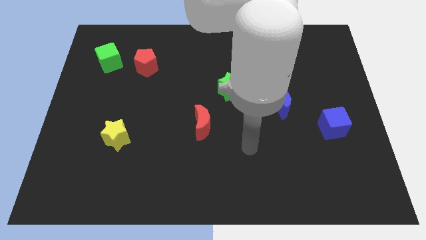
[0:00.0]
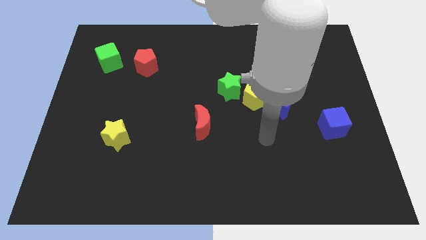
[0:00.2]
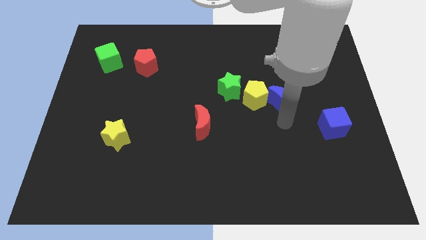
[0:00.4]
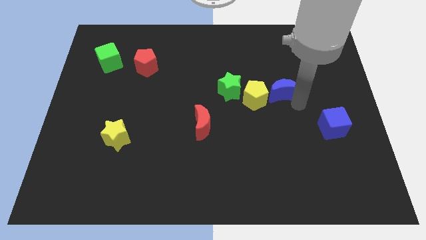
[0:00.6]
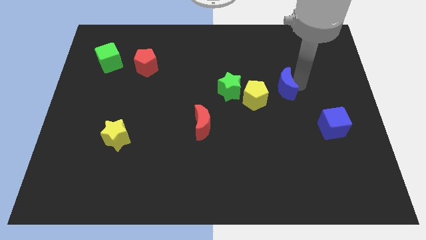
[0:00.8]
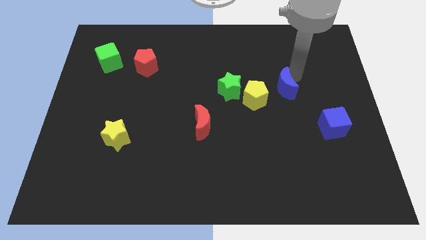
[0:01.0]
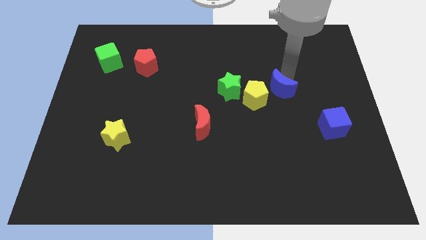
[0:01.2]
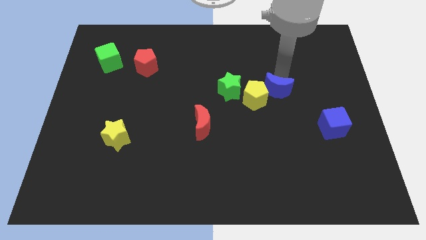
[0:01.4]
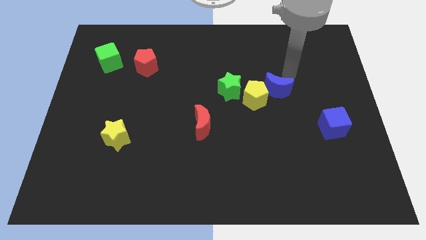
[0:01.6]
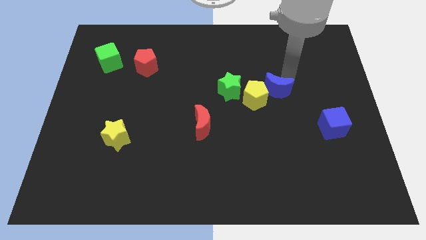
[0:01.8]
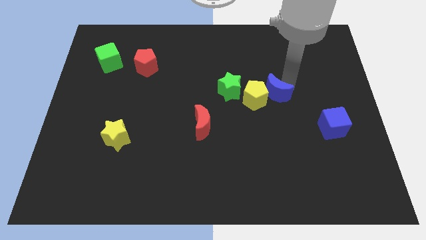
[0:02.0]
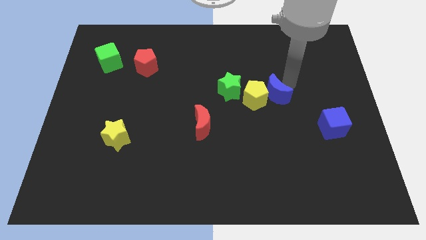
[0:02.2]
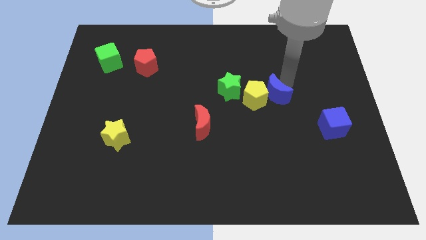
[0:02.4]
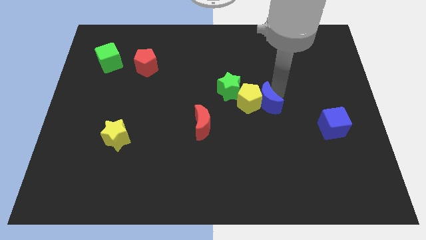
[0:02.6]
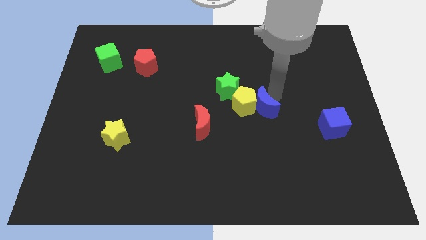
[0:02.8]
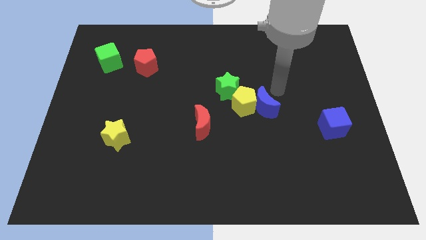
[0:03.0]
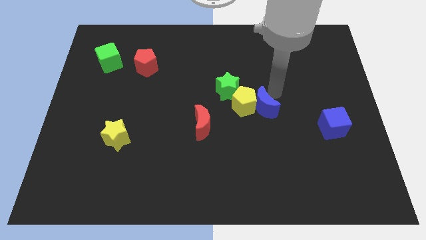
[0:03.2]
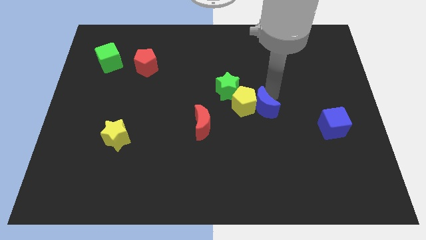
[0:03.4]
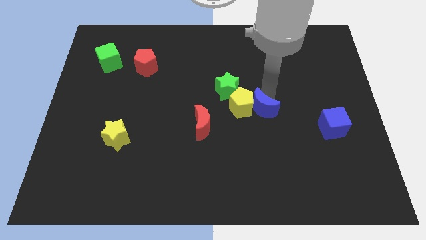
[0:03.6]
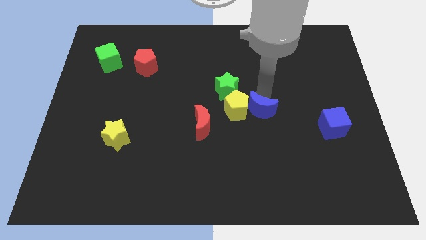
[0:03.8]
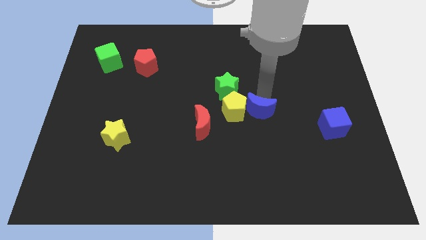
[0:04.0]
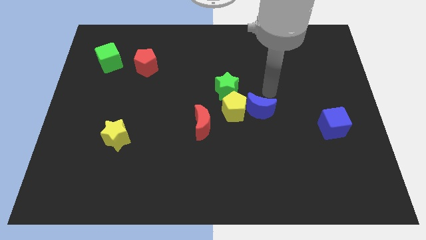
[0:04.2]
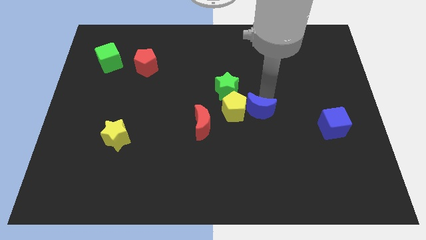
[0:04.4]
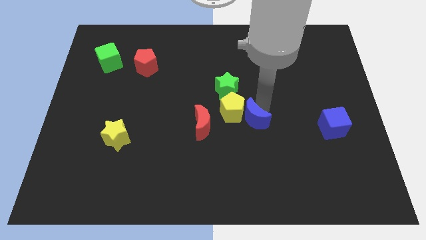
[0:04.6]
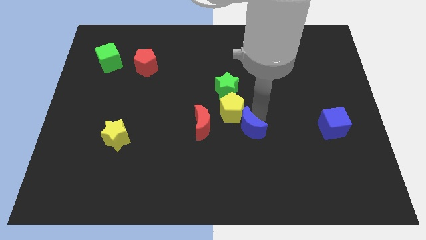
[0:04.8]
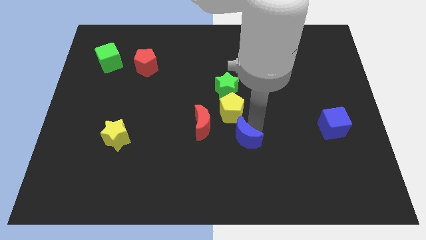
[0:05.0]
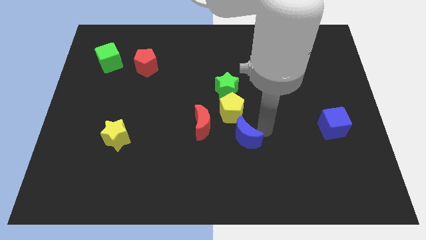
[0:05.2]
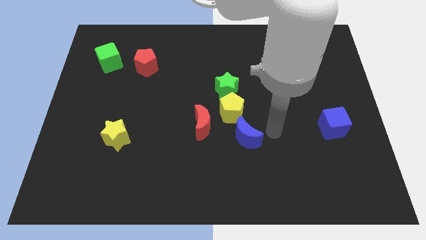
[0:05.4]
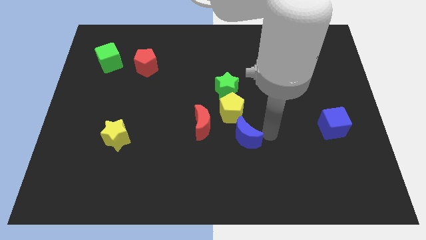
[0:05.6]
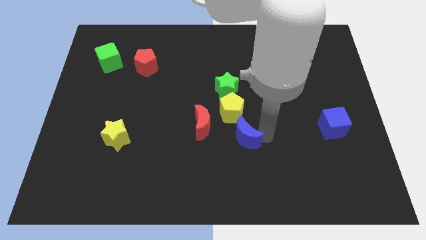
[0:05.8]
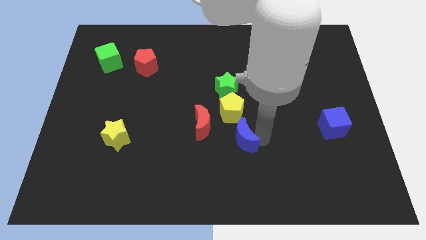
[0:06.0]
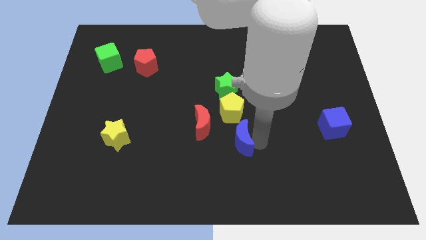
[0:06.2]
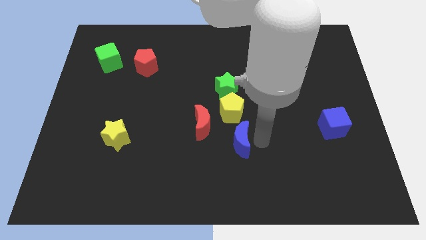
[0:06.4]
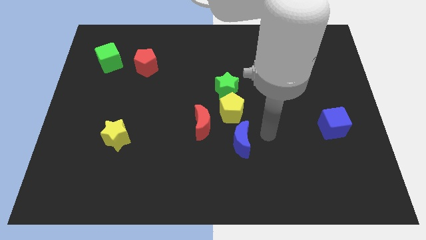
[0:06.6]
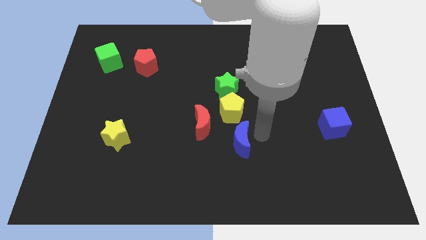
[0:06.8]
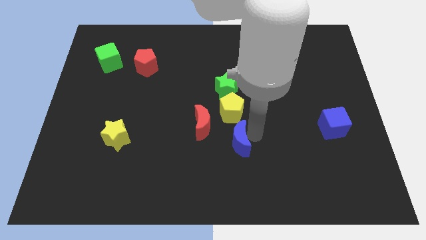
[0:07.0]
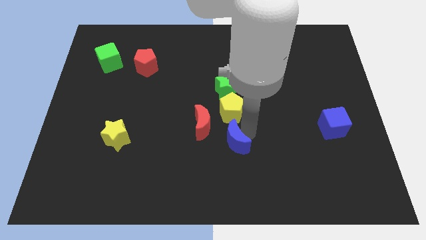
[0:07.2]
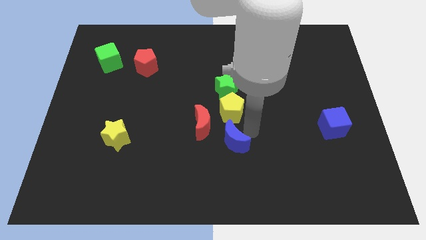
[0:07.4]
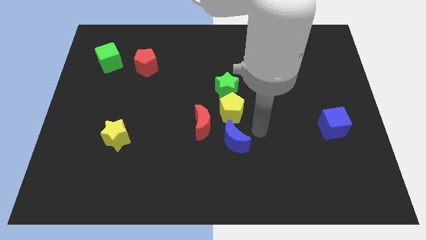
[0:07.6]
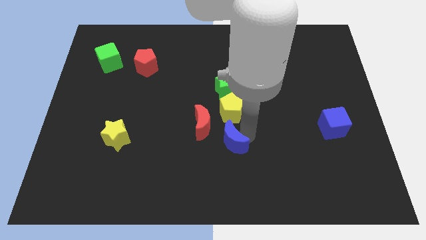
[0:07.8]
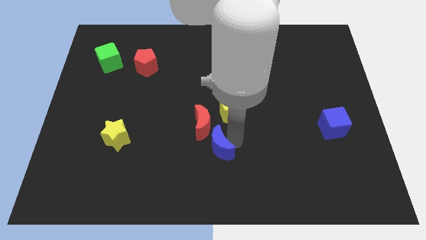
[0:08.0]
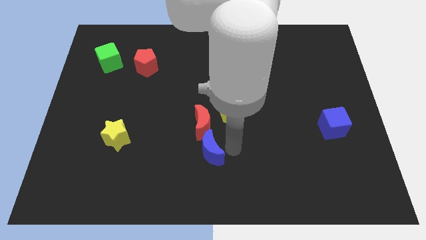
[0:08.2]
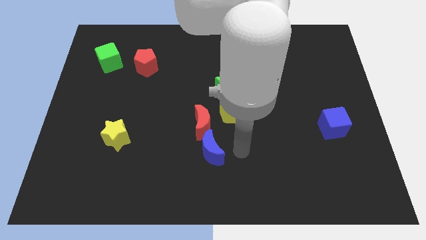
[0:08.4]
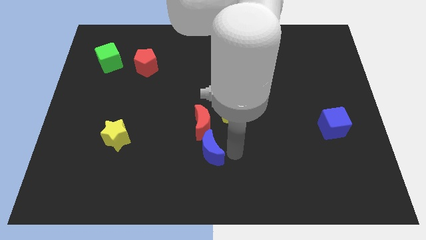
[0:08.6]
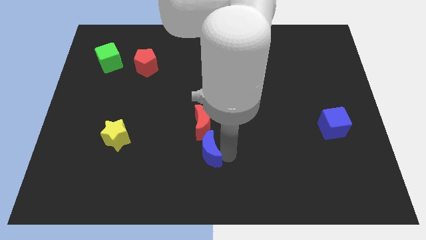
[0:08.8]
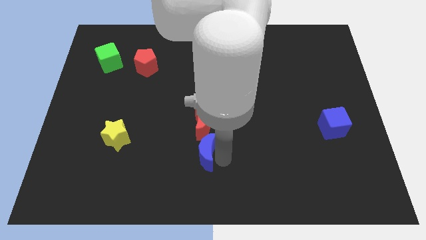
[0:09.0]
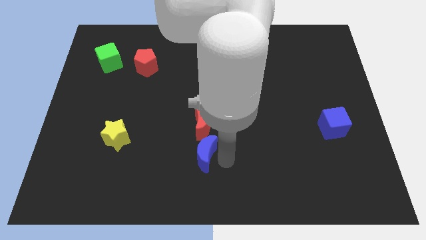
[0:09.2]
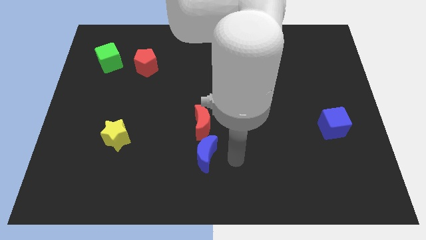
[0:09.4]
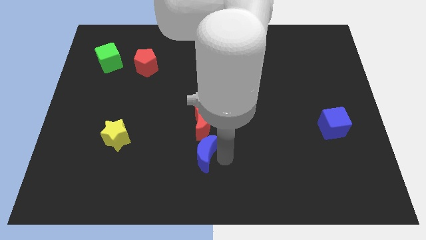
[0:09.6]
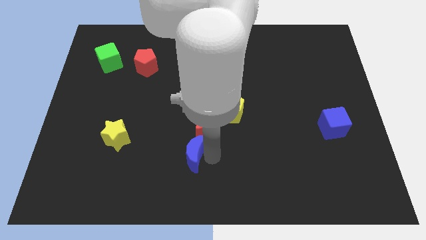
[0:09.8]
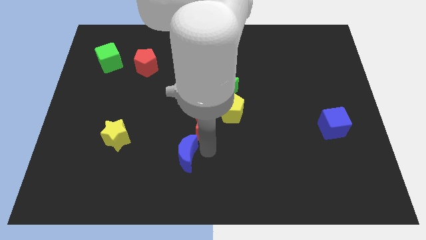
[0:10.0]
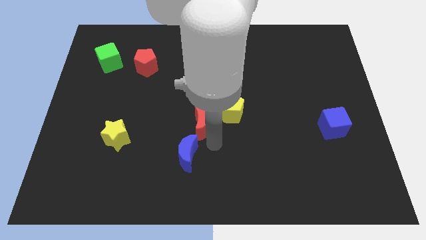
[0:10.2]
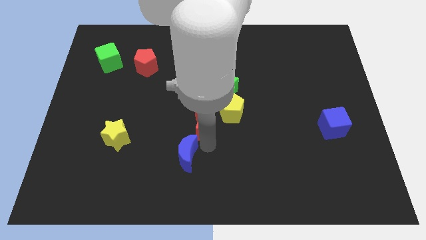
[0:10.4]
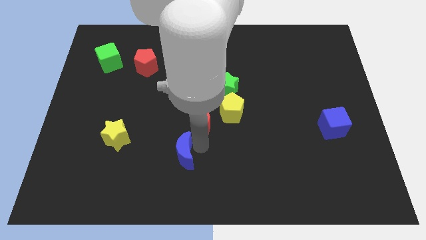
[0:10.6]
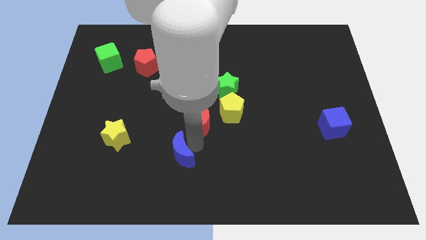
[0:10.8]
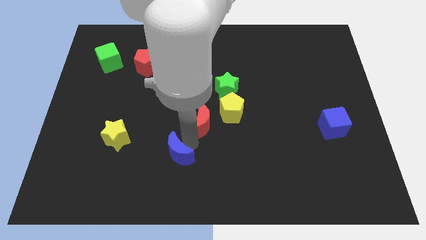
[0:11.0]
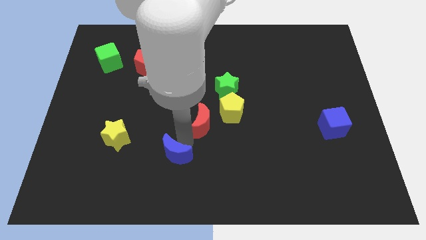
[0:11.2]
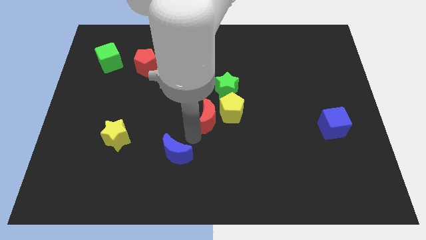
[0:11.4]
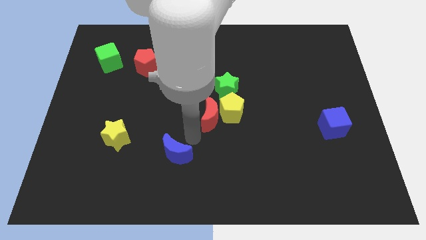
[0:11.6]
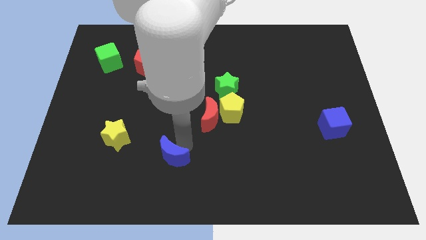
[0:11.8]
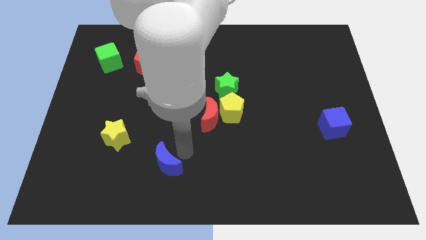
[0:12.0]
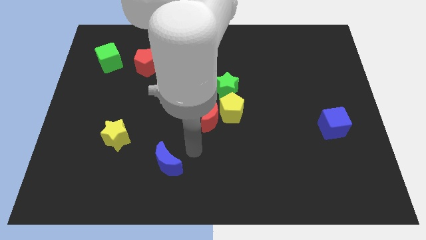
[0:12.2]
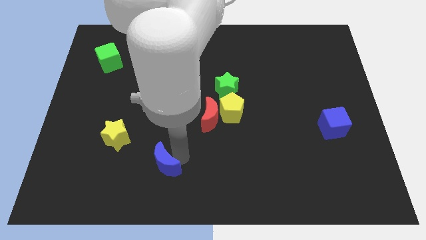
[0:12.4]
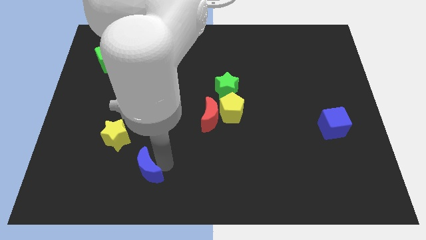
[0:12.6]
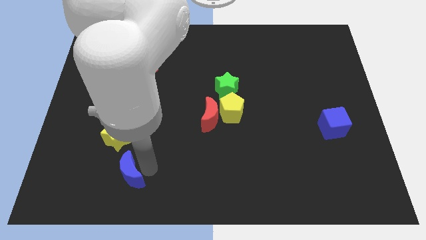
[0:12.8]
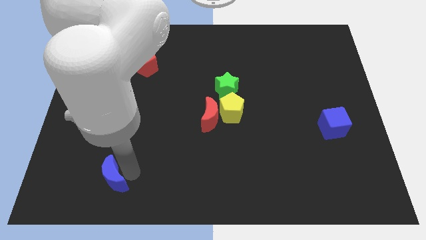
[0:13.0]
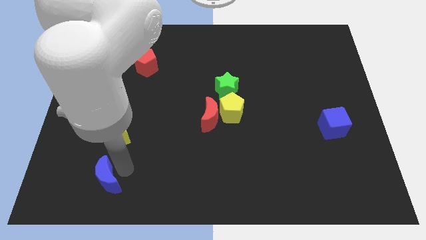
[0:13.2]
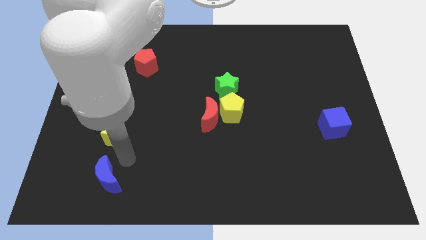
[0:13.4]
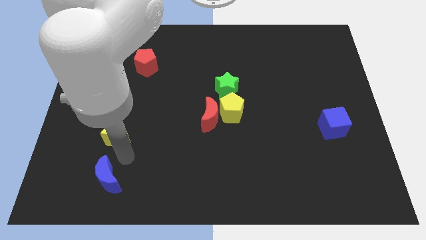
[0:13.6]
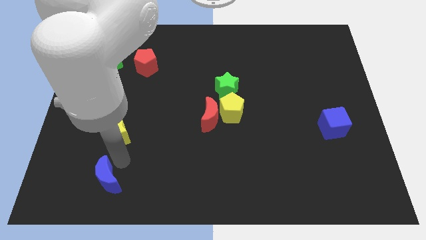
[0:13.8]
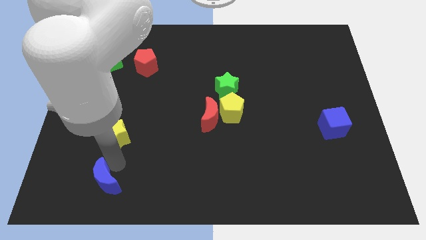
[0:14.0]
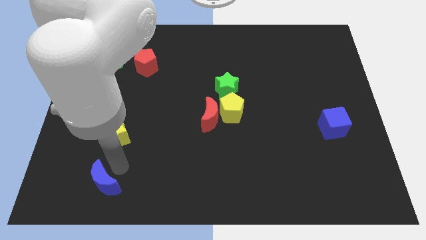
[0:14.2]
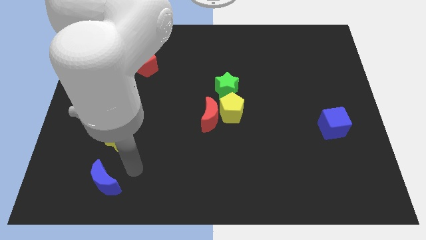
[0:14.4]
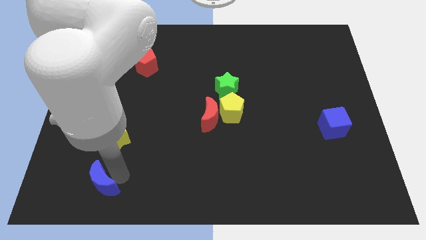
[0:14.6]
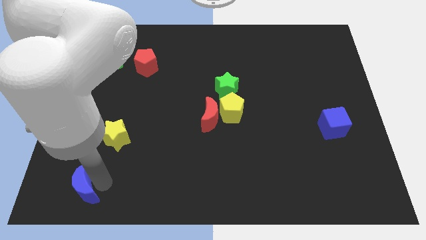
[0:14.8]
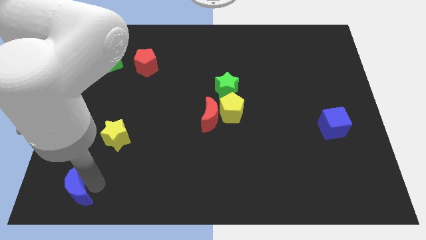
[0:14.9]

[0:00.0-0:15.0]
move the blue moon to the bottom left of the board
